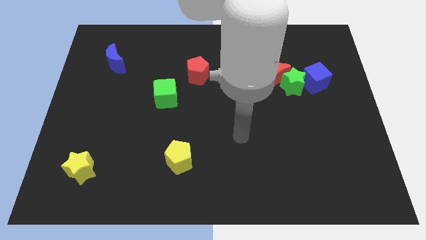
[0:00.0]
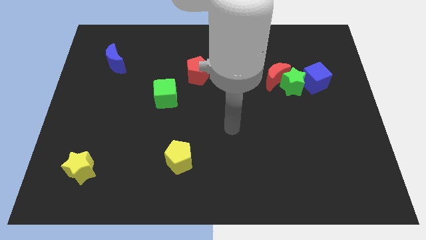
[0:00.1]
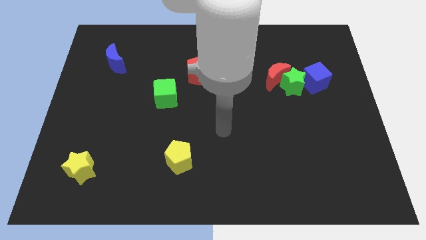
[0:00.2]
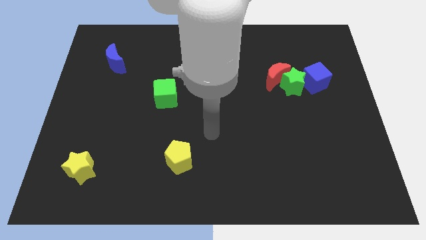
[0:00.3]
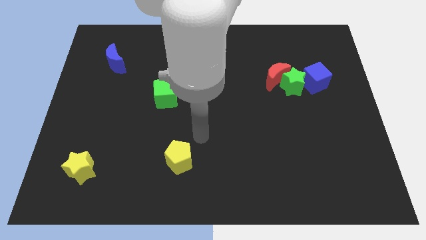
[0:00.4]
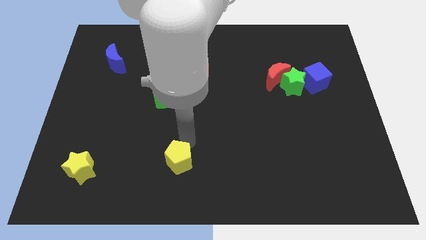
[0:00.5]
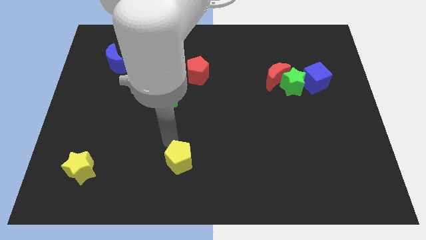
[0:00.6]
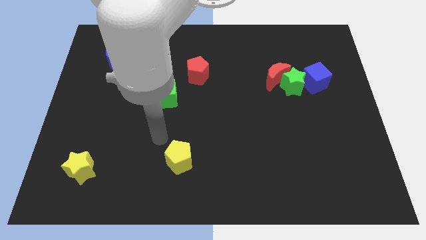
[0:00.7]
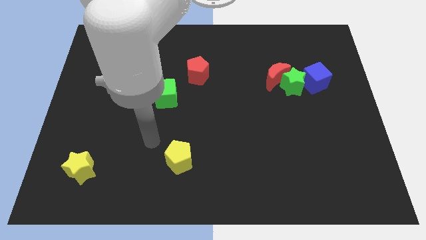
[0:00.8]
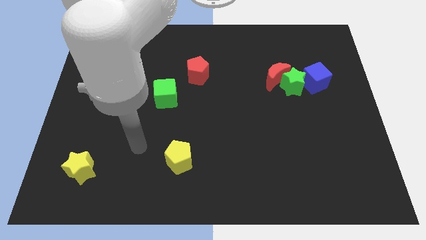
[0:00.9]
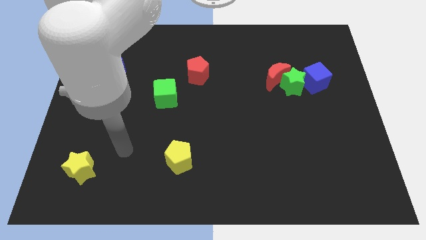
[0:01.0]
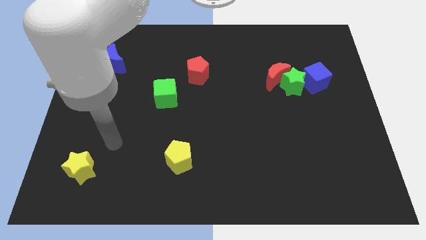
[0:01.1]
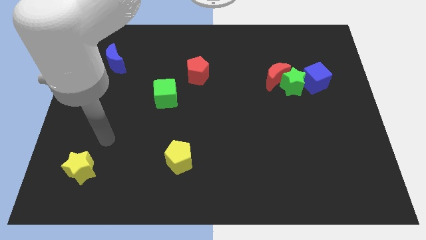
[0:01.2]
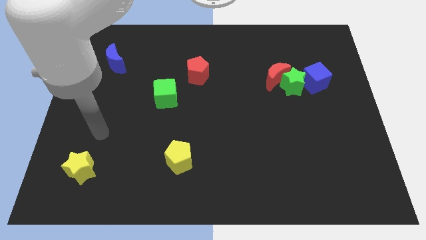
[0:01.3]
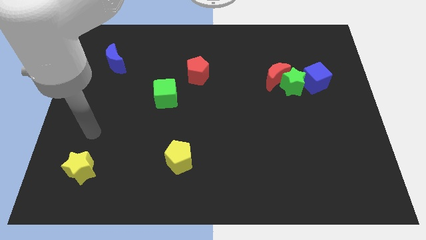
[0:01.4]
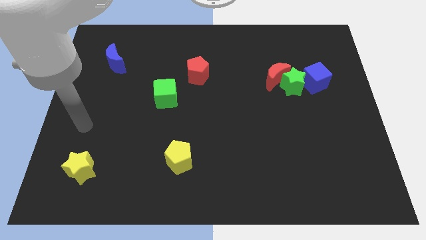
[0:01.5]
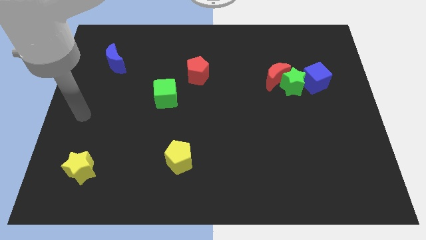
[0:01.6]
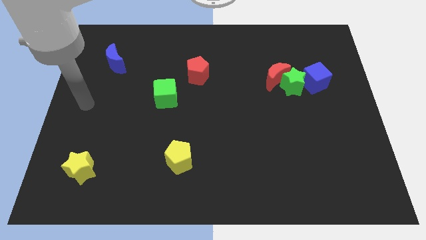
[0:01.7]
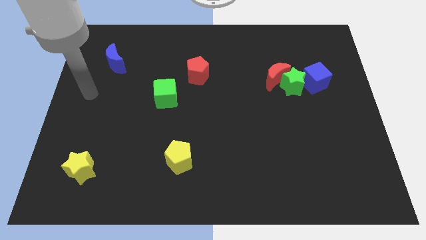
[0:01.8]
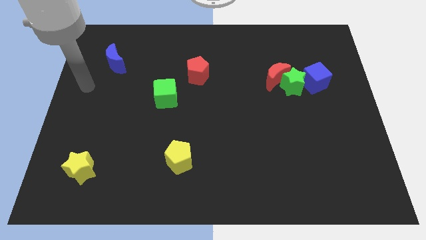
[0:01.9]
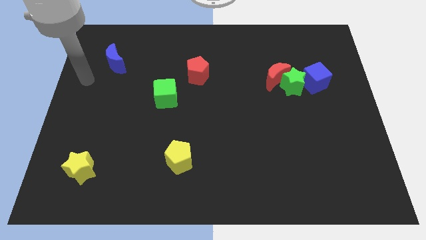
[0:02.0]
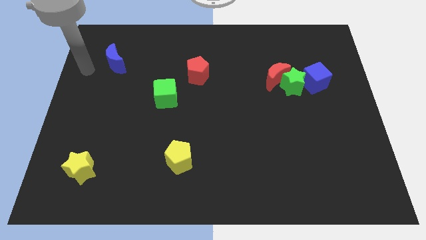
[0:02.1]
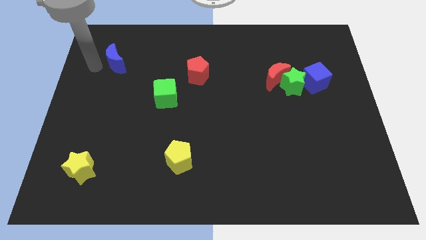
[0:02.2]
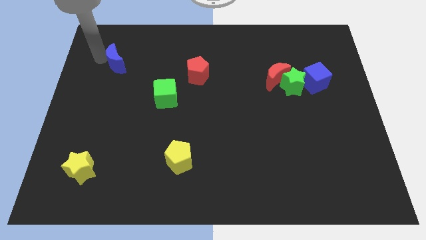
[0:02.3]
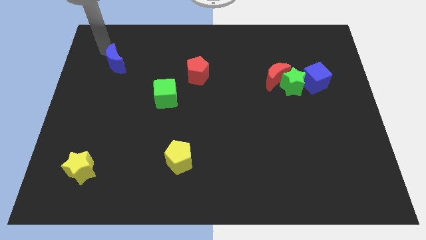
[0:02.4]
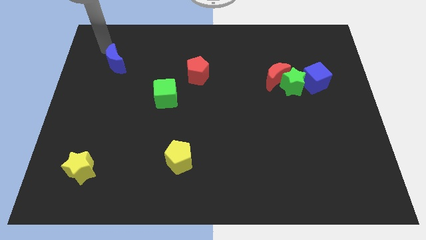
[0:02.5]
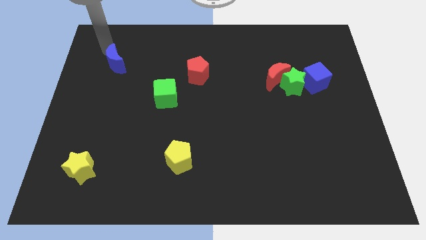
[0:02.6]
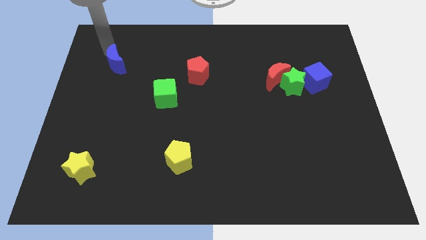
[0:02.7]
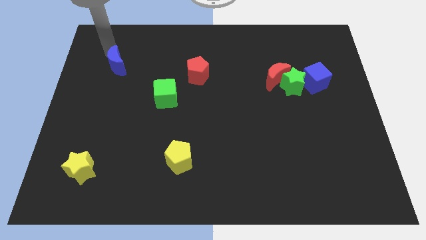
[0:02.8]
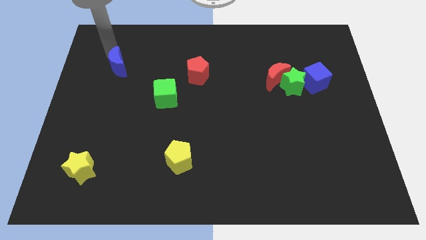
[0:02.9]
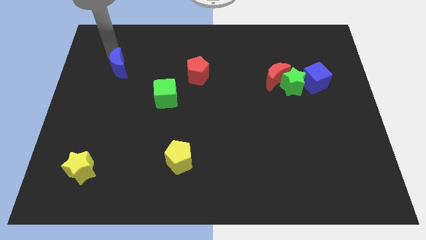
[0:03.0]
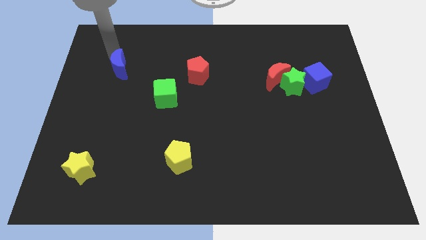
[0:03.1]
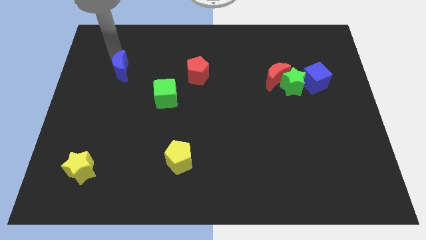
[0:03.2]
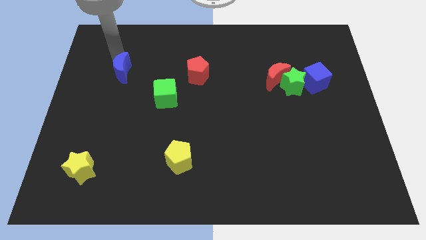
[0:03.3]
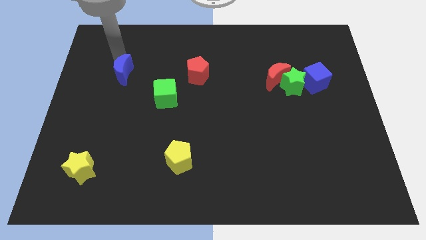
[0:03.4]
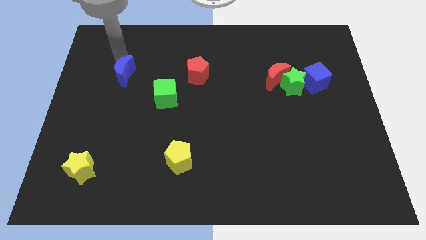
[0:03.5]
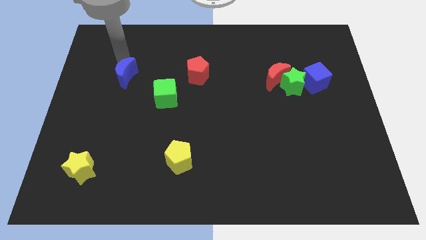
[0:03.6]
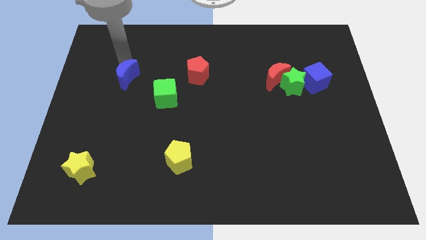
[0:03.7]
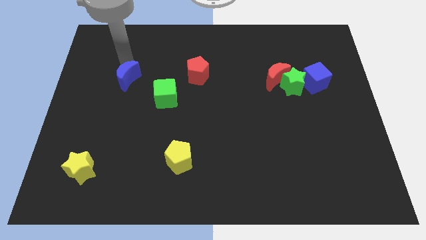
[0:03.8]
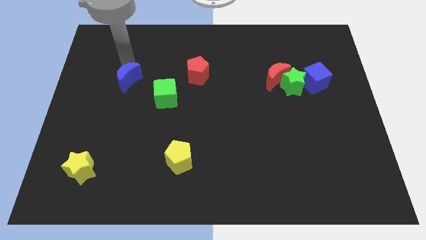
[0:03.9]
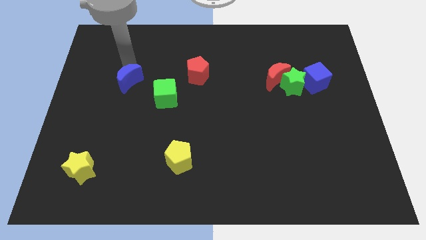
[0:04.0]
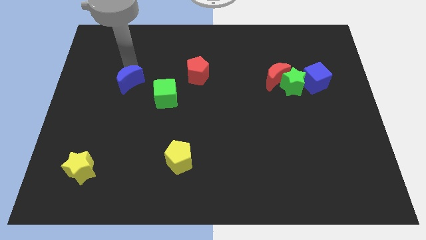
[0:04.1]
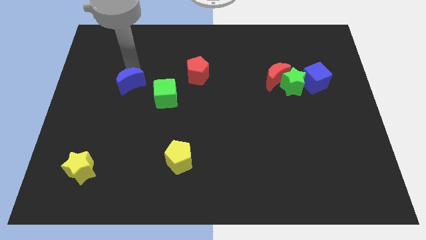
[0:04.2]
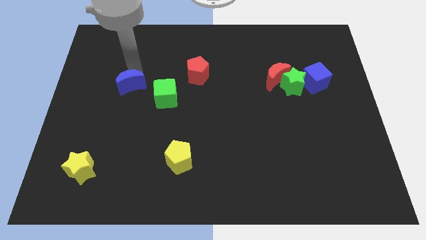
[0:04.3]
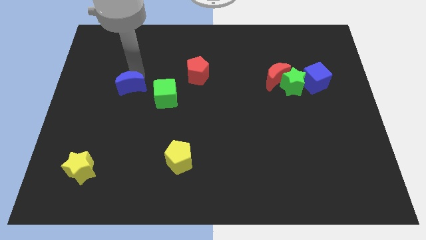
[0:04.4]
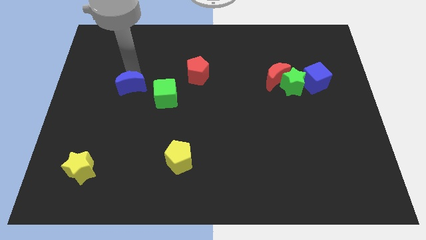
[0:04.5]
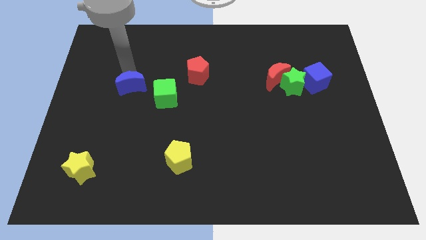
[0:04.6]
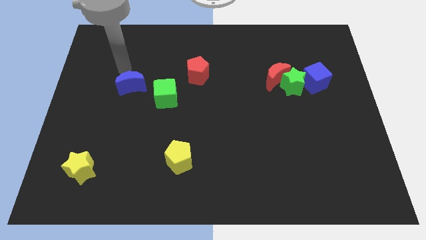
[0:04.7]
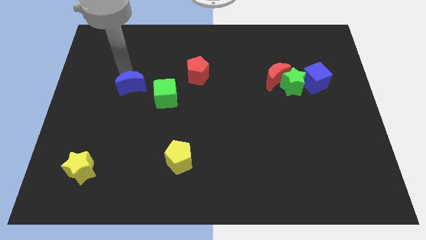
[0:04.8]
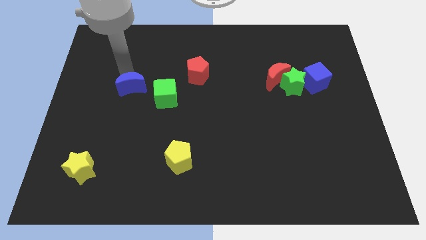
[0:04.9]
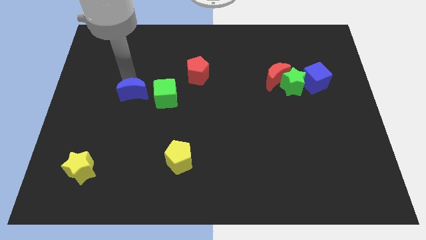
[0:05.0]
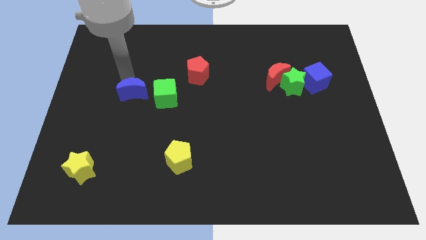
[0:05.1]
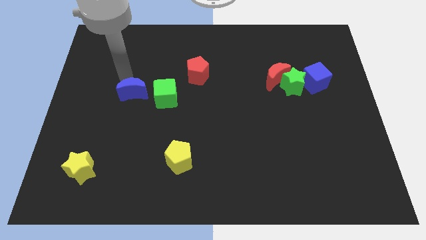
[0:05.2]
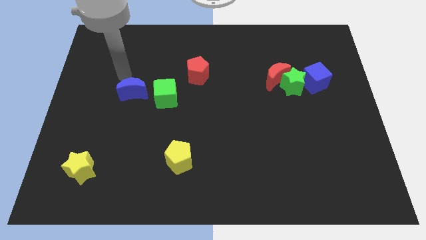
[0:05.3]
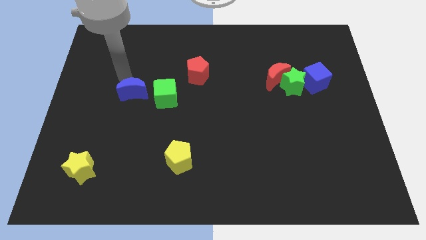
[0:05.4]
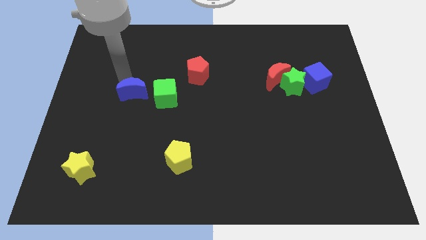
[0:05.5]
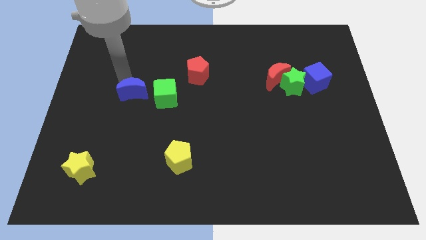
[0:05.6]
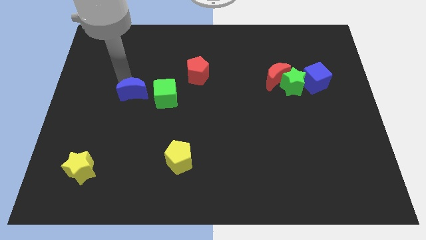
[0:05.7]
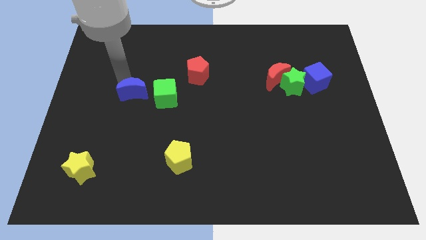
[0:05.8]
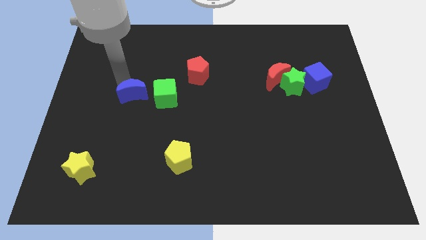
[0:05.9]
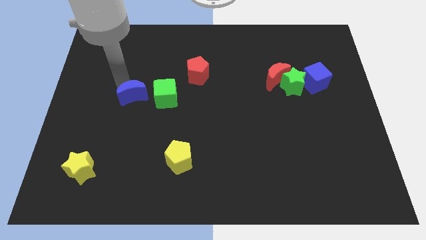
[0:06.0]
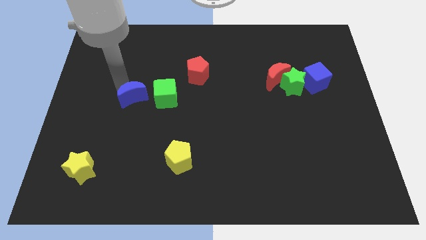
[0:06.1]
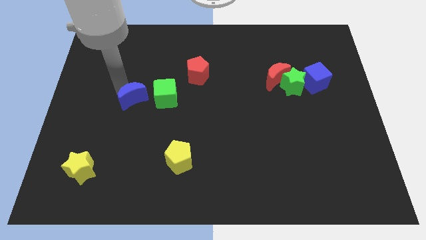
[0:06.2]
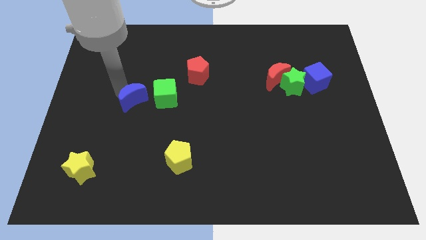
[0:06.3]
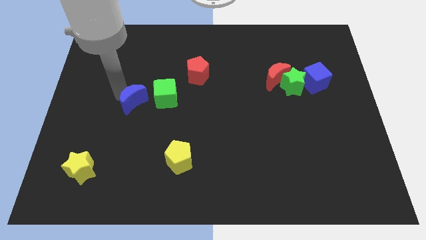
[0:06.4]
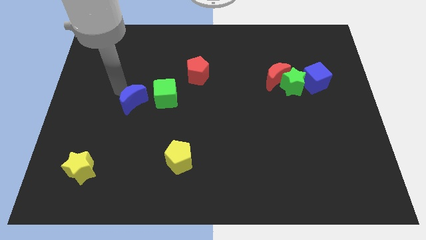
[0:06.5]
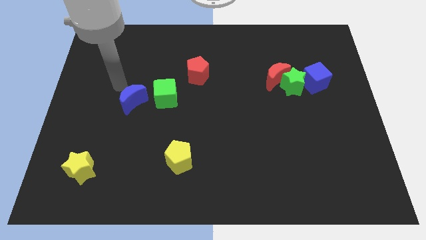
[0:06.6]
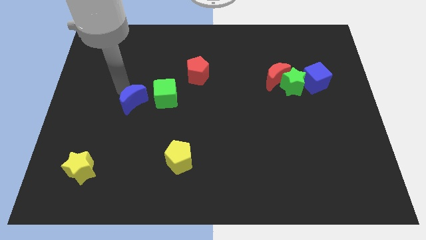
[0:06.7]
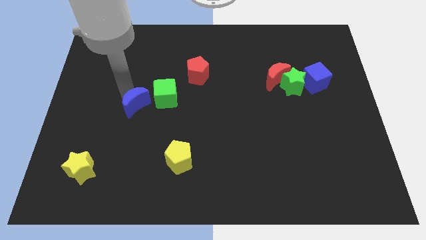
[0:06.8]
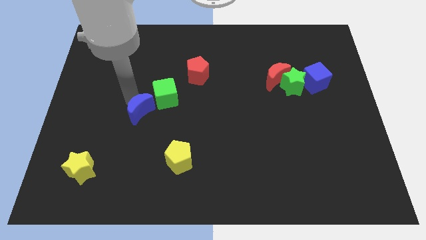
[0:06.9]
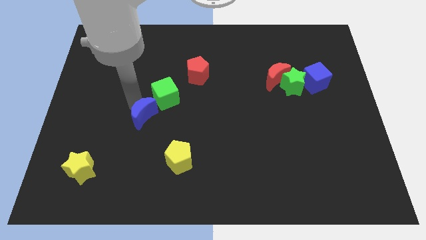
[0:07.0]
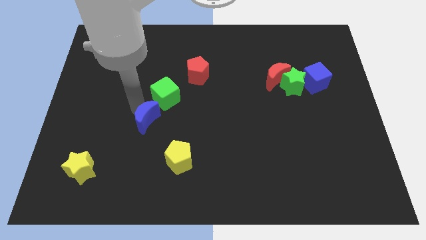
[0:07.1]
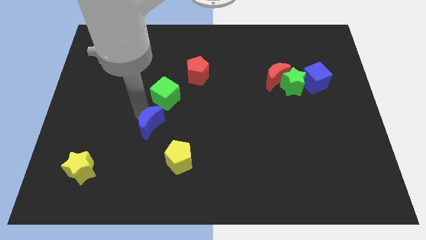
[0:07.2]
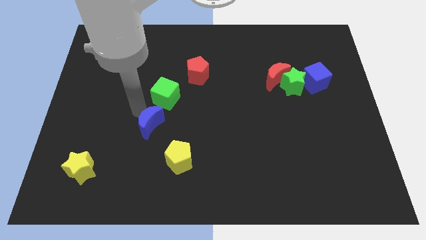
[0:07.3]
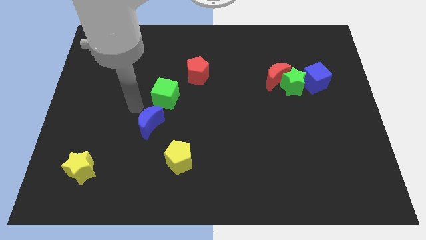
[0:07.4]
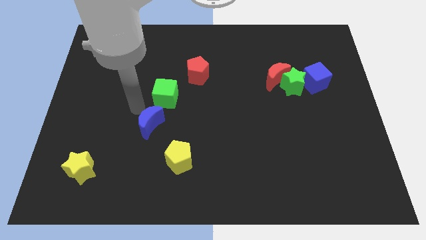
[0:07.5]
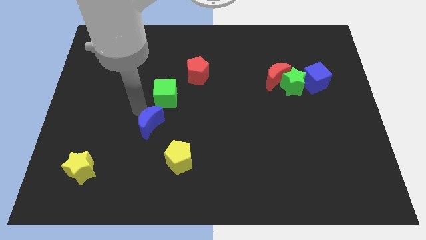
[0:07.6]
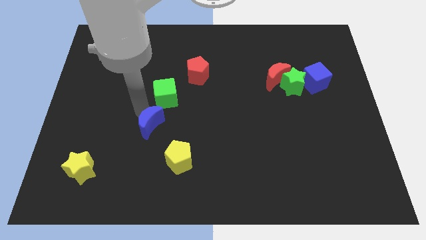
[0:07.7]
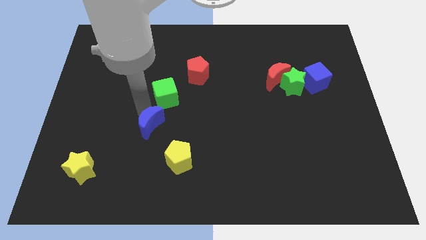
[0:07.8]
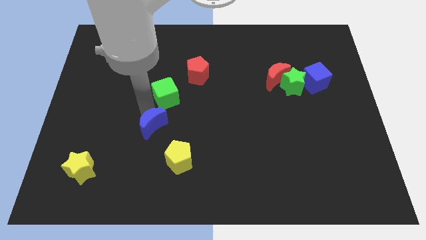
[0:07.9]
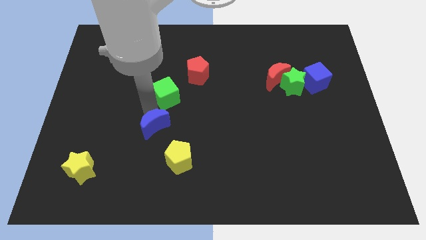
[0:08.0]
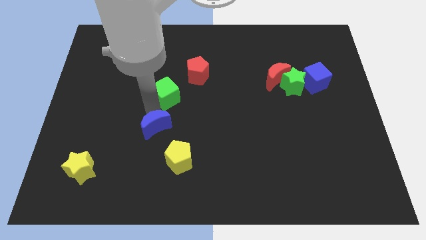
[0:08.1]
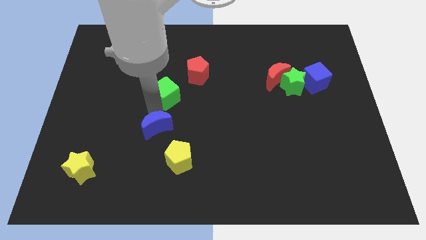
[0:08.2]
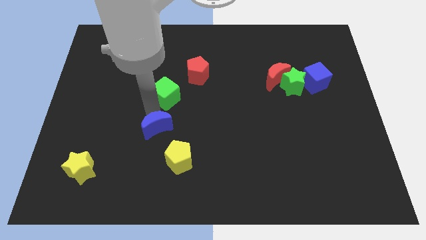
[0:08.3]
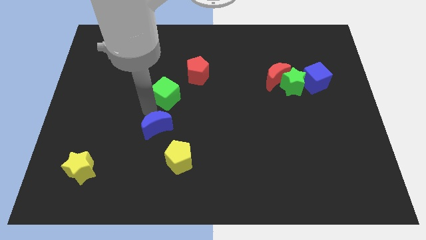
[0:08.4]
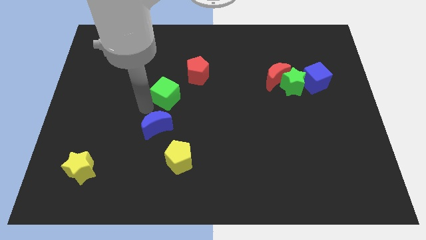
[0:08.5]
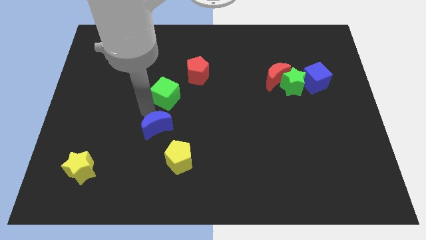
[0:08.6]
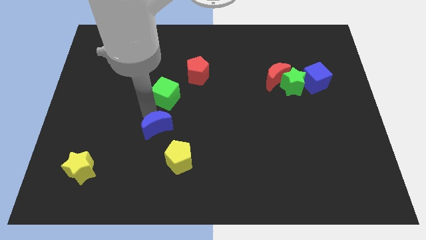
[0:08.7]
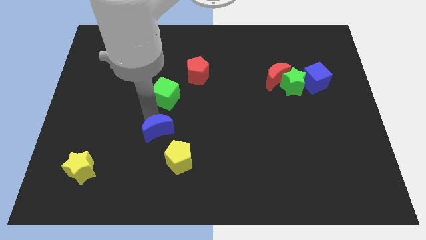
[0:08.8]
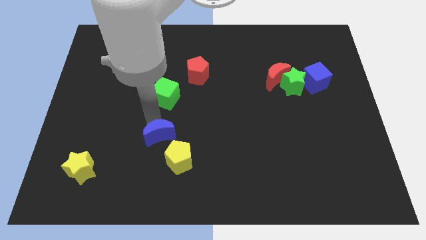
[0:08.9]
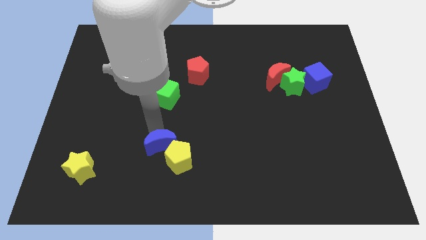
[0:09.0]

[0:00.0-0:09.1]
slide the blue moon to the yellow pentagon
